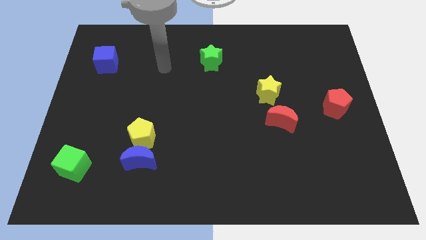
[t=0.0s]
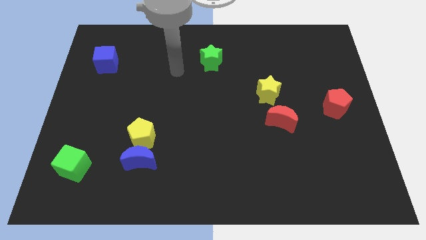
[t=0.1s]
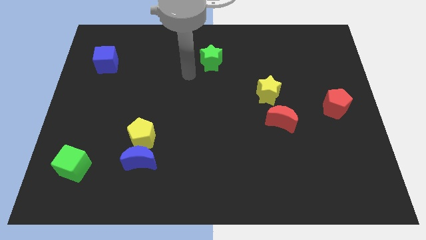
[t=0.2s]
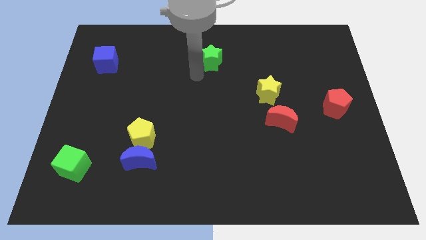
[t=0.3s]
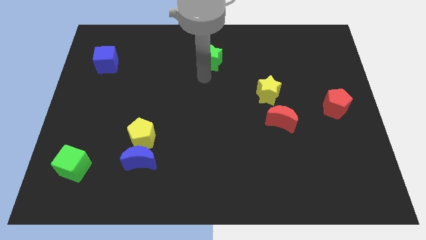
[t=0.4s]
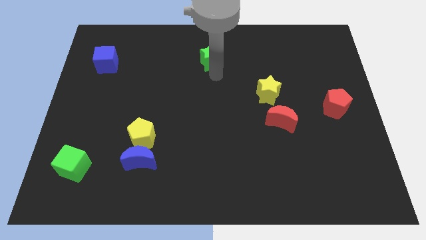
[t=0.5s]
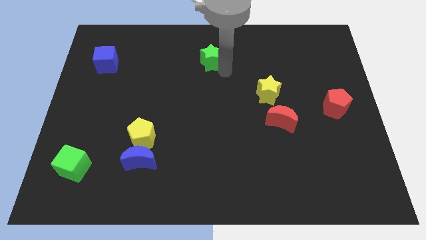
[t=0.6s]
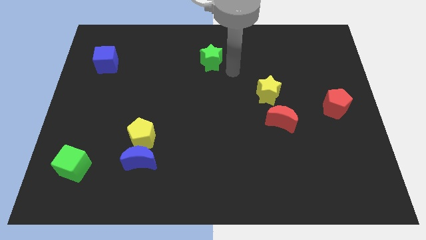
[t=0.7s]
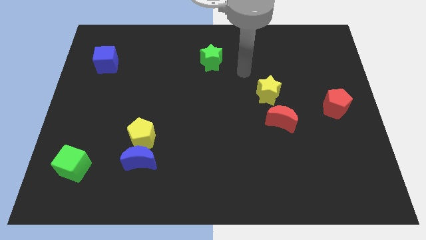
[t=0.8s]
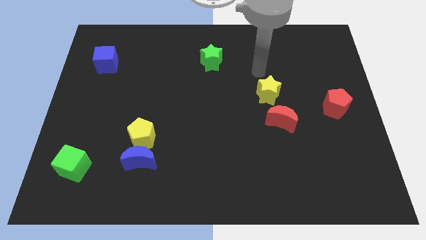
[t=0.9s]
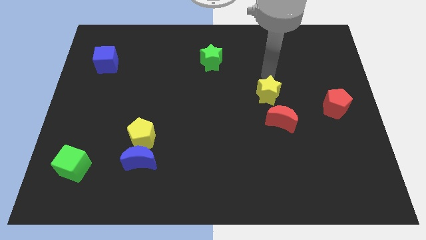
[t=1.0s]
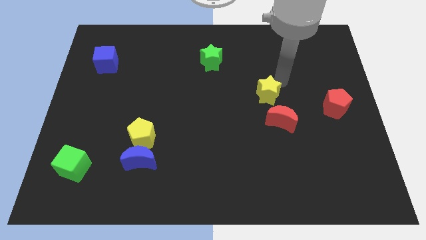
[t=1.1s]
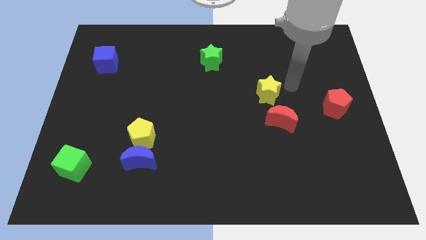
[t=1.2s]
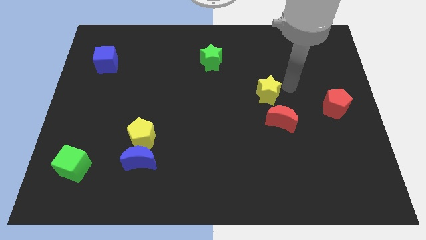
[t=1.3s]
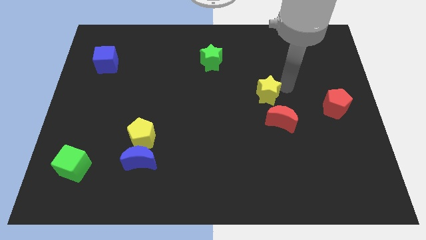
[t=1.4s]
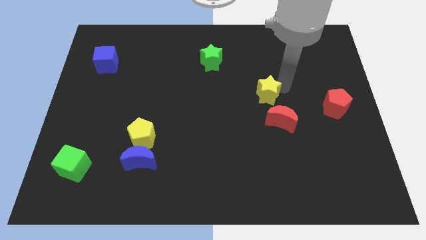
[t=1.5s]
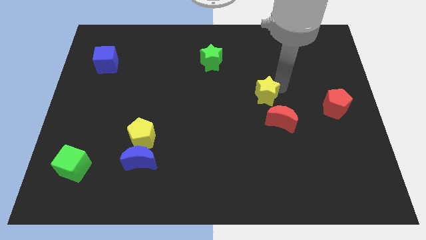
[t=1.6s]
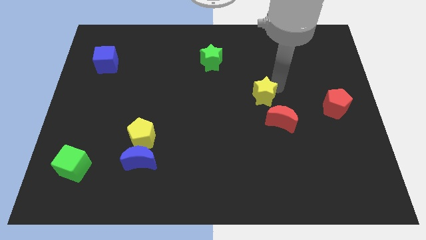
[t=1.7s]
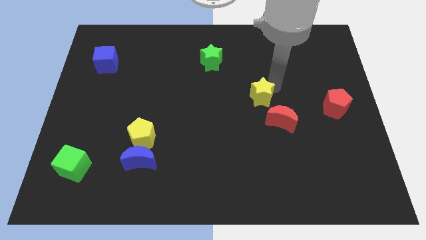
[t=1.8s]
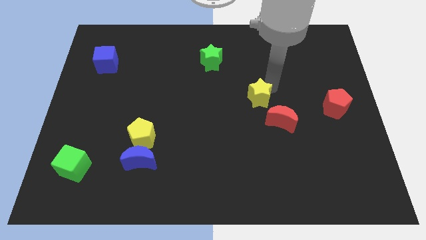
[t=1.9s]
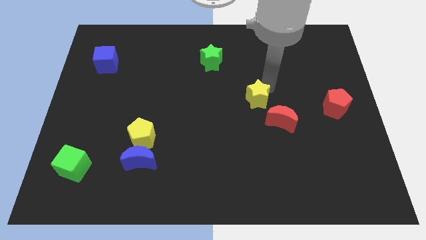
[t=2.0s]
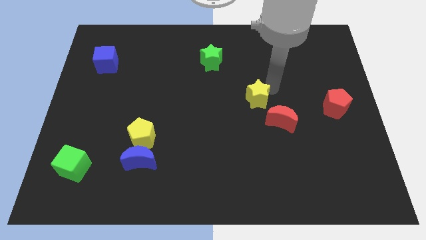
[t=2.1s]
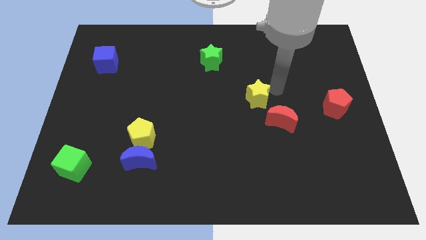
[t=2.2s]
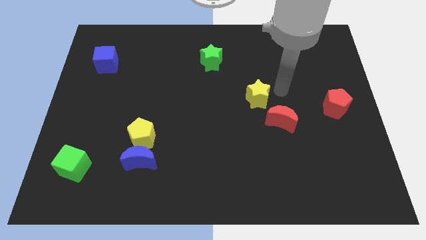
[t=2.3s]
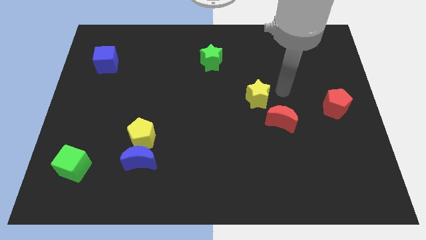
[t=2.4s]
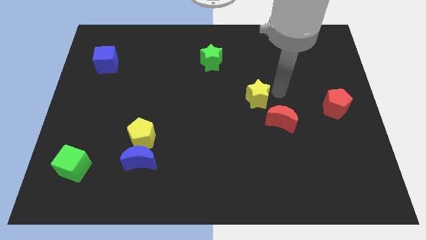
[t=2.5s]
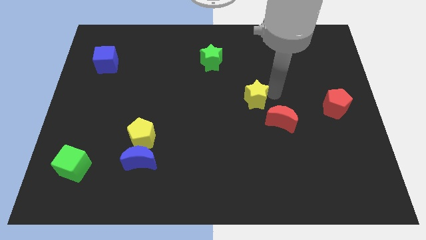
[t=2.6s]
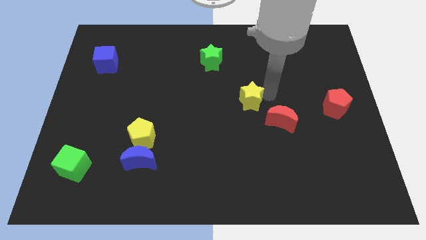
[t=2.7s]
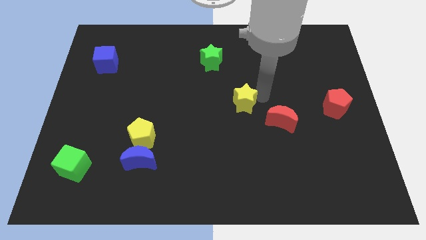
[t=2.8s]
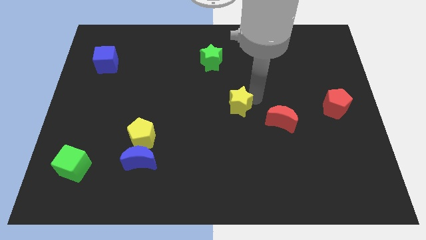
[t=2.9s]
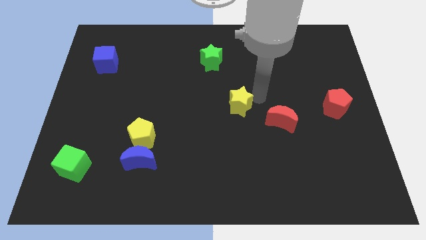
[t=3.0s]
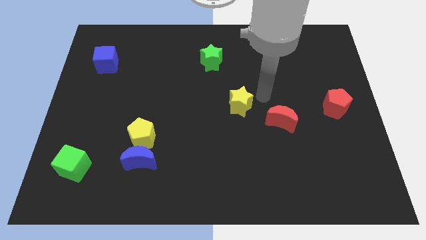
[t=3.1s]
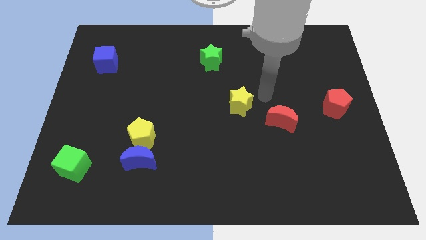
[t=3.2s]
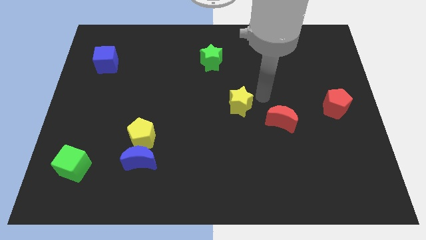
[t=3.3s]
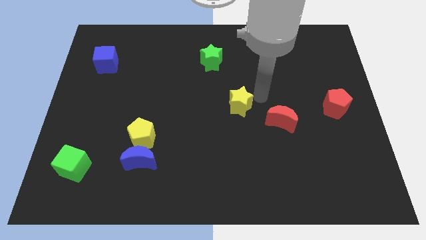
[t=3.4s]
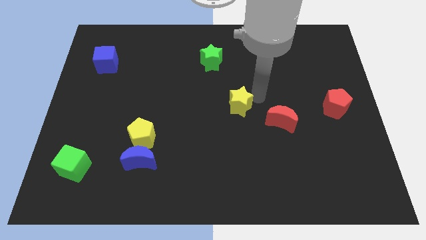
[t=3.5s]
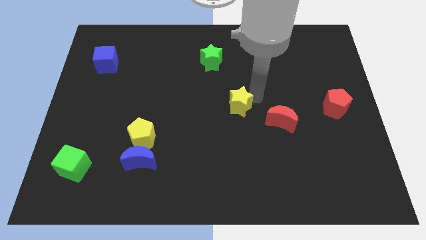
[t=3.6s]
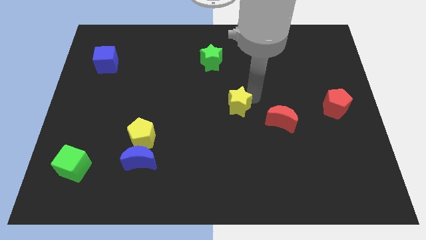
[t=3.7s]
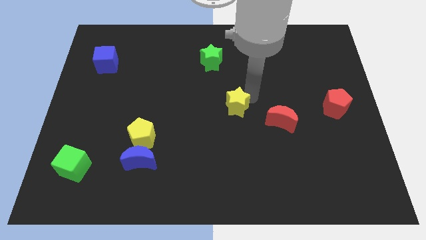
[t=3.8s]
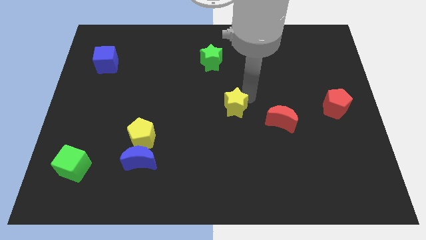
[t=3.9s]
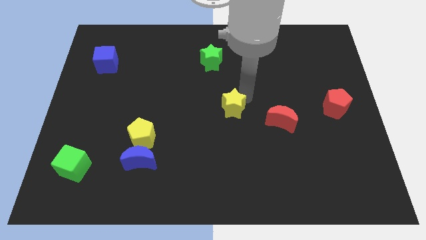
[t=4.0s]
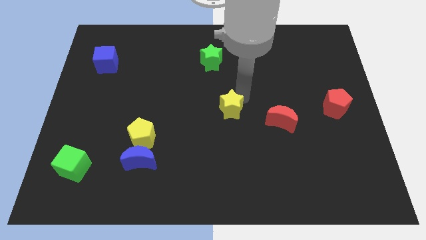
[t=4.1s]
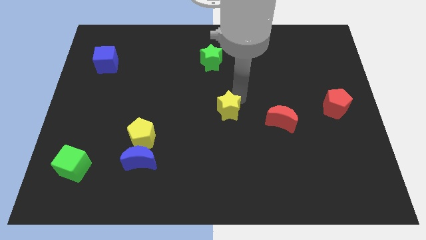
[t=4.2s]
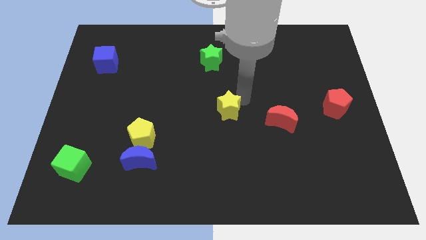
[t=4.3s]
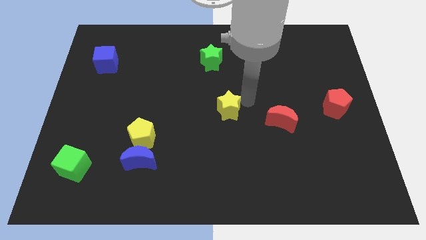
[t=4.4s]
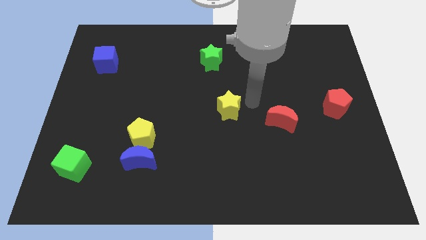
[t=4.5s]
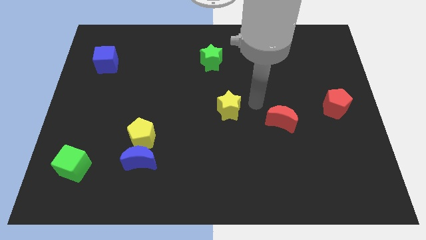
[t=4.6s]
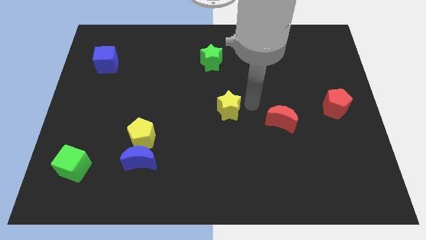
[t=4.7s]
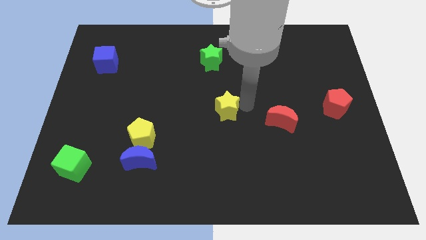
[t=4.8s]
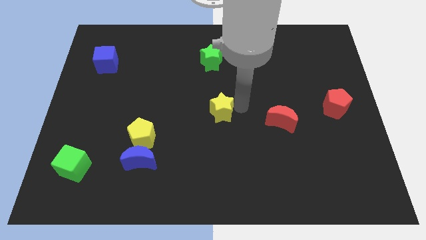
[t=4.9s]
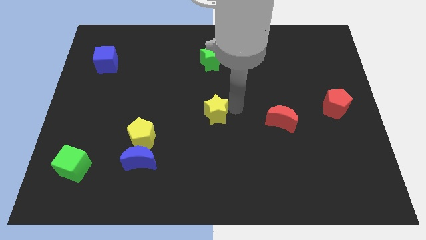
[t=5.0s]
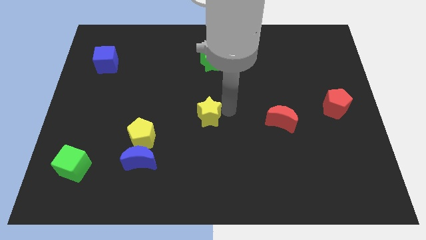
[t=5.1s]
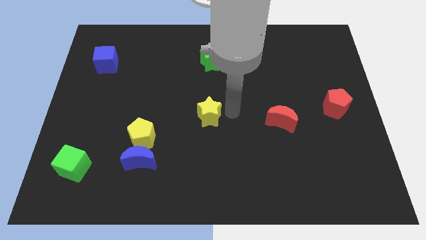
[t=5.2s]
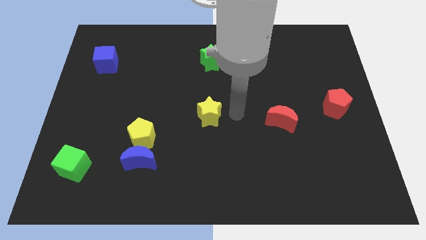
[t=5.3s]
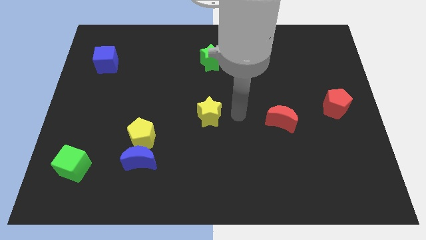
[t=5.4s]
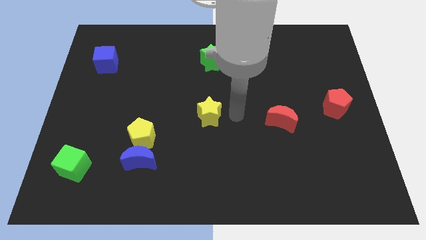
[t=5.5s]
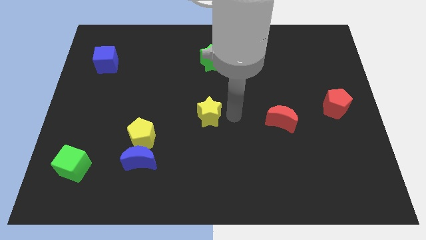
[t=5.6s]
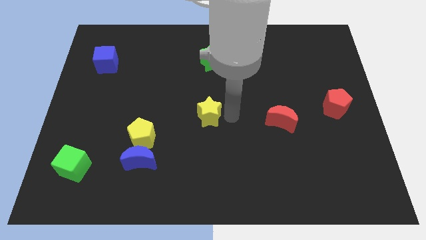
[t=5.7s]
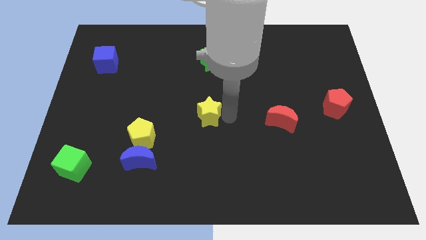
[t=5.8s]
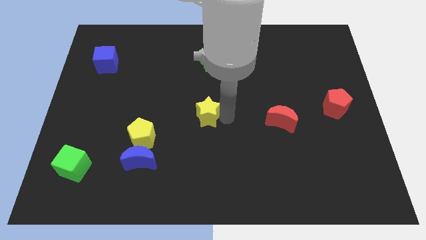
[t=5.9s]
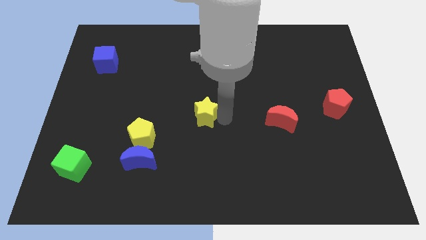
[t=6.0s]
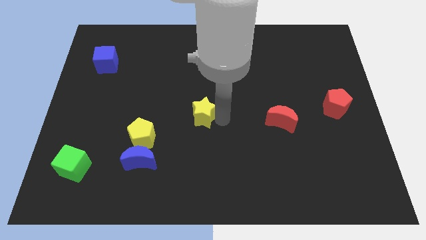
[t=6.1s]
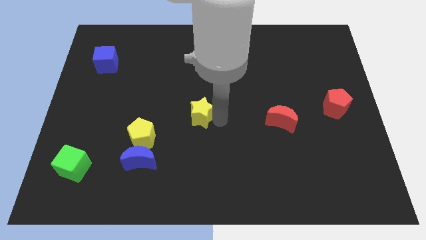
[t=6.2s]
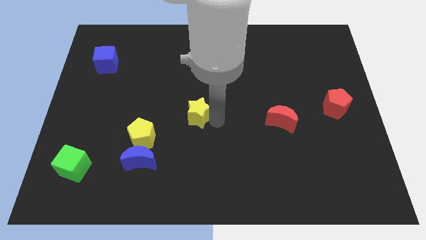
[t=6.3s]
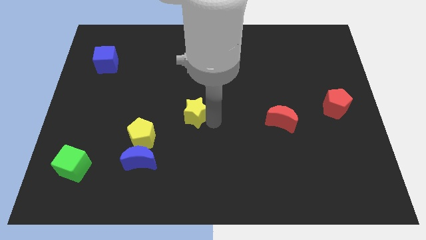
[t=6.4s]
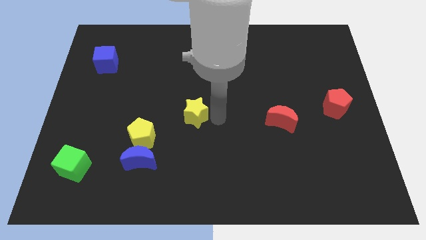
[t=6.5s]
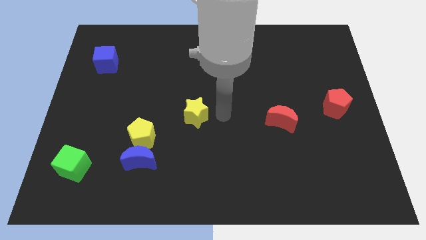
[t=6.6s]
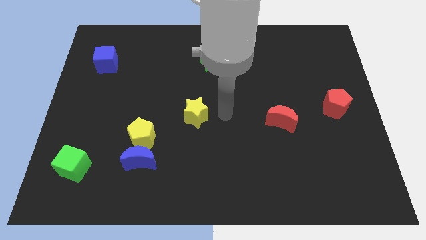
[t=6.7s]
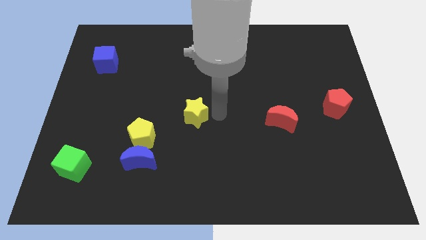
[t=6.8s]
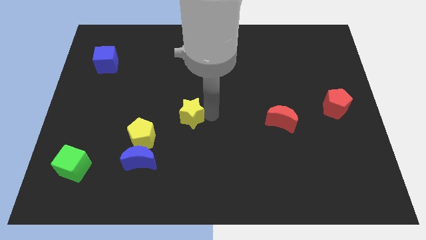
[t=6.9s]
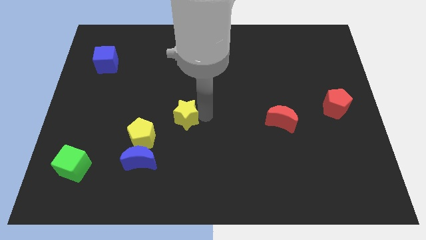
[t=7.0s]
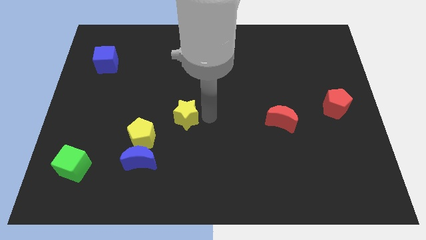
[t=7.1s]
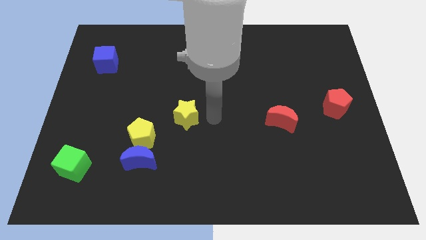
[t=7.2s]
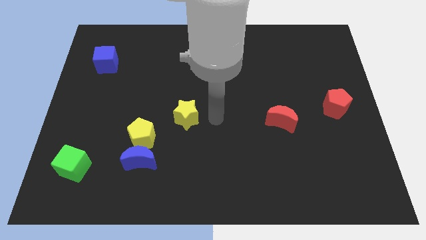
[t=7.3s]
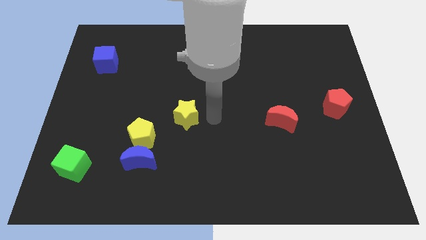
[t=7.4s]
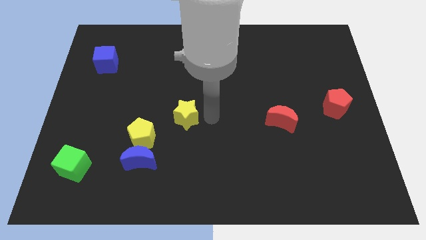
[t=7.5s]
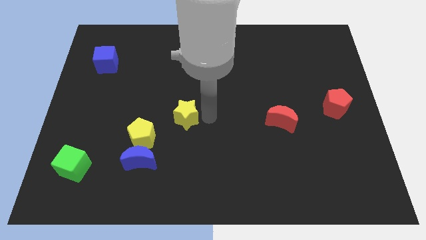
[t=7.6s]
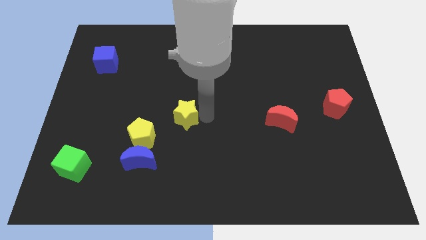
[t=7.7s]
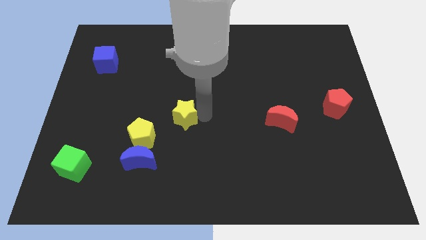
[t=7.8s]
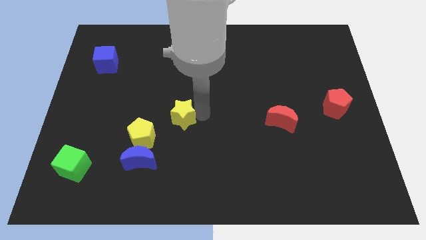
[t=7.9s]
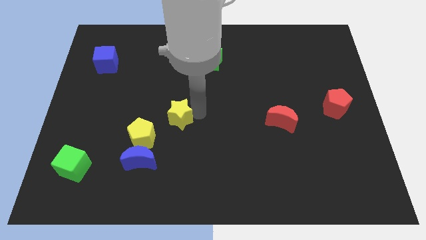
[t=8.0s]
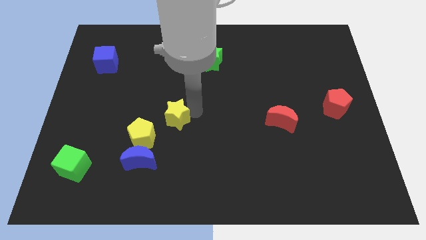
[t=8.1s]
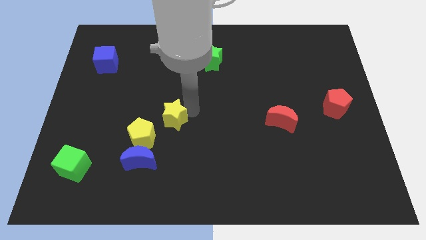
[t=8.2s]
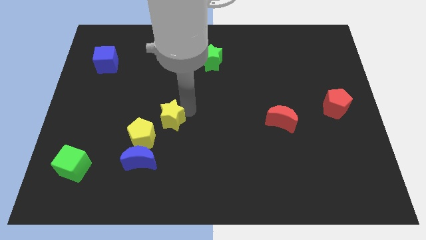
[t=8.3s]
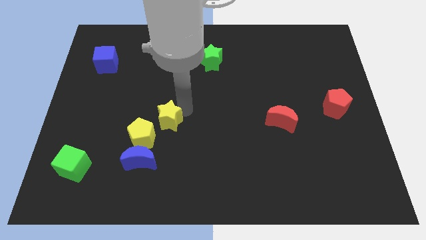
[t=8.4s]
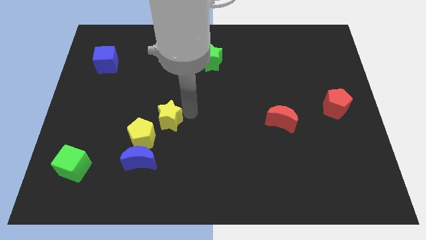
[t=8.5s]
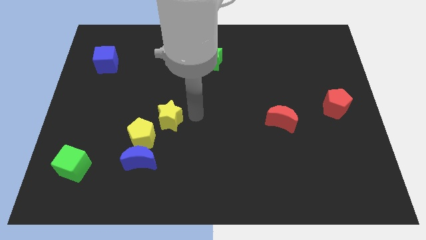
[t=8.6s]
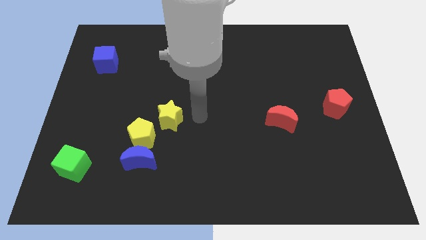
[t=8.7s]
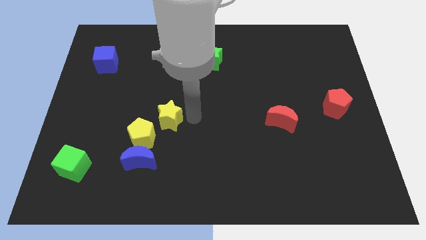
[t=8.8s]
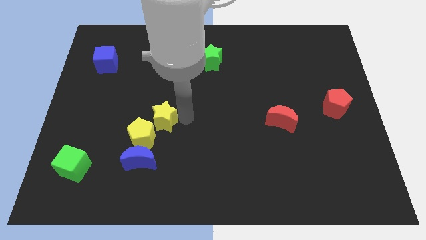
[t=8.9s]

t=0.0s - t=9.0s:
slide the yellow star to the top side of the blue moon
